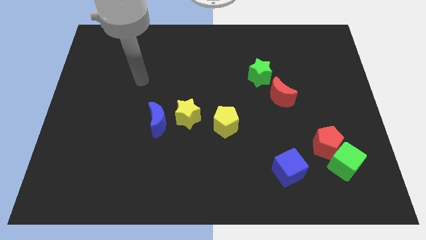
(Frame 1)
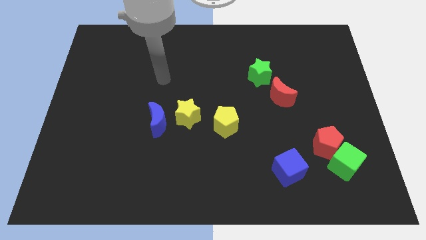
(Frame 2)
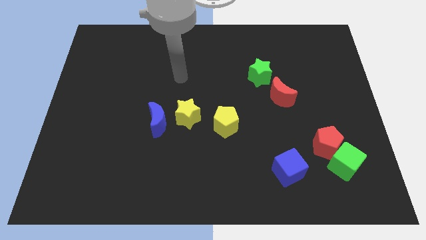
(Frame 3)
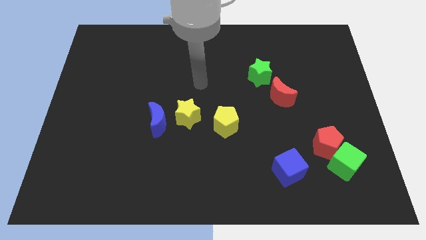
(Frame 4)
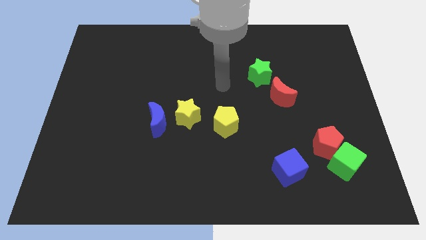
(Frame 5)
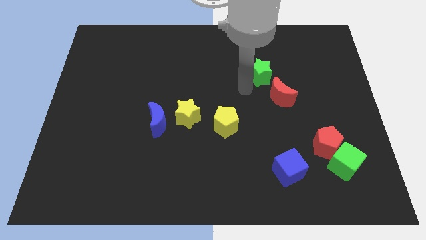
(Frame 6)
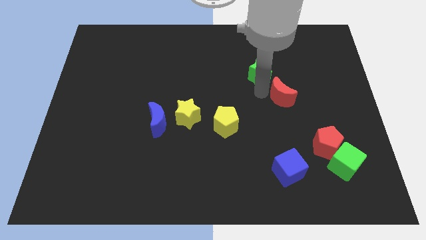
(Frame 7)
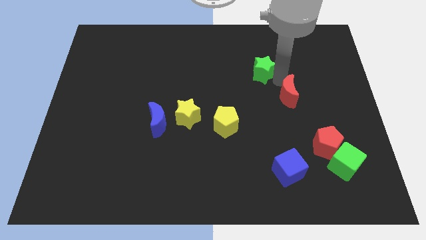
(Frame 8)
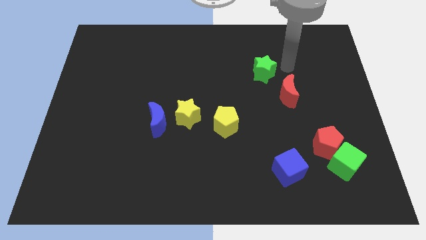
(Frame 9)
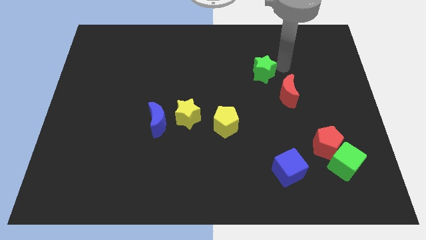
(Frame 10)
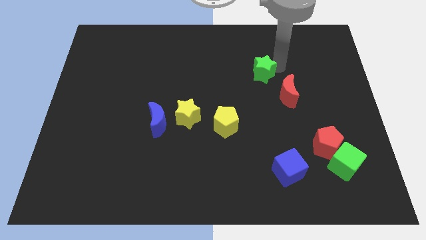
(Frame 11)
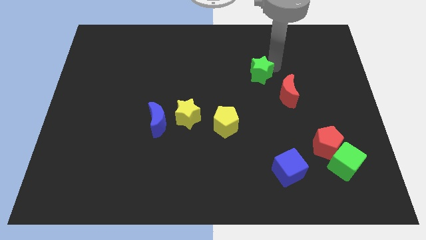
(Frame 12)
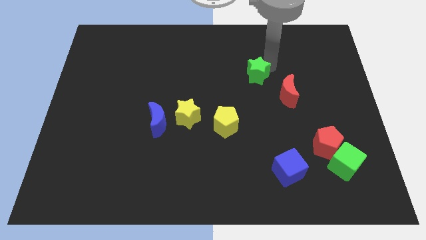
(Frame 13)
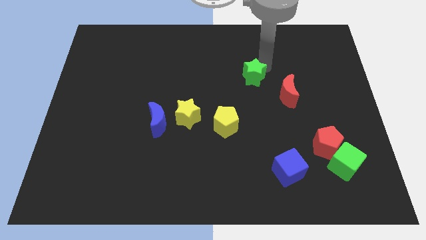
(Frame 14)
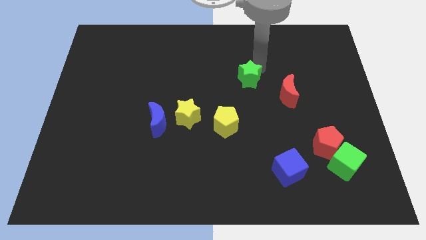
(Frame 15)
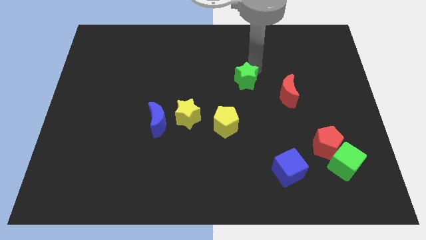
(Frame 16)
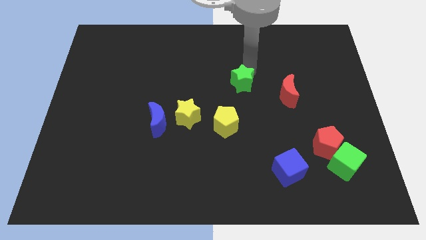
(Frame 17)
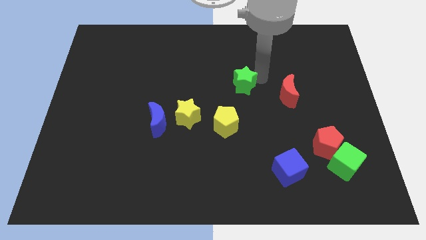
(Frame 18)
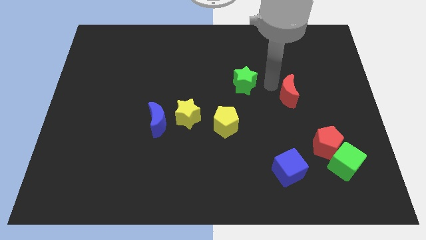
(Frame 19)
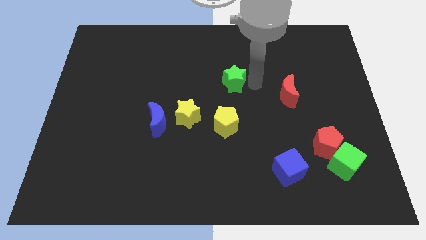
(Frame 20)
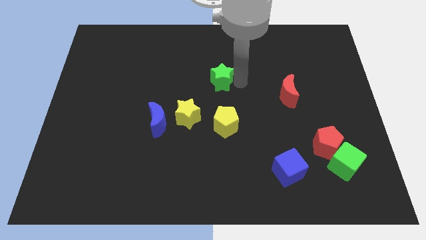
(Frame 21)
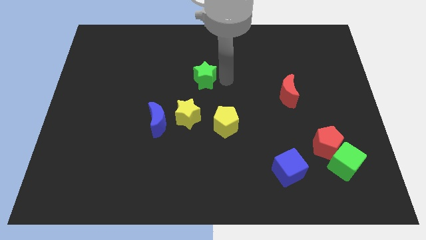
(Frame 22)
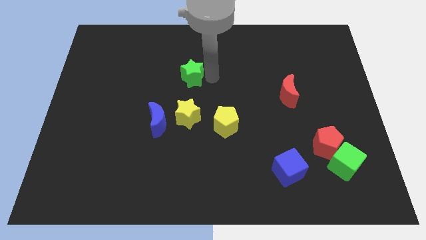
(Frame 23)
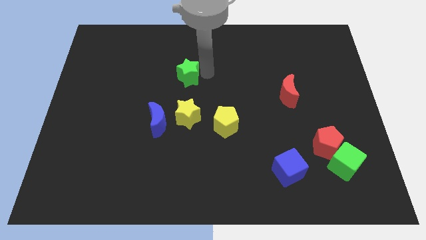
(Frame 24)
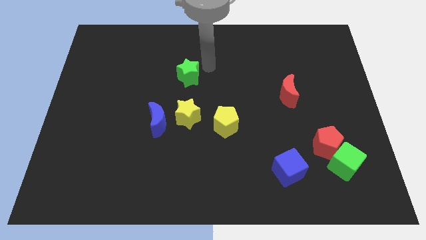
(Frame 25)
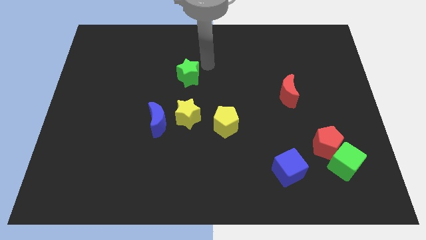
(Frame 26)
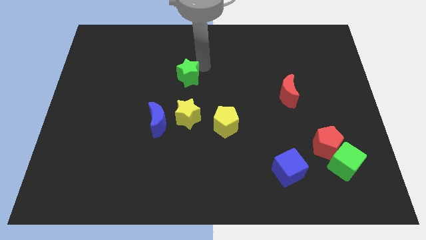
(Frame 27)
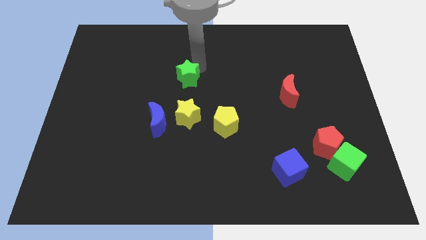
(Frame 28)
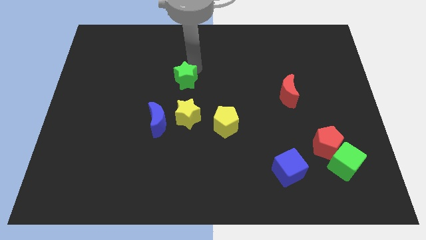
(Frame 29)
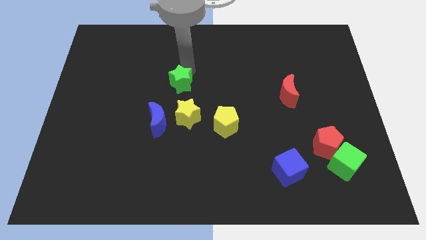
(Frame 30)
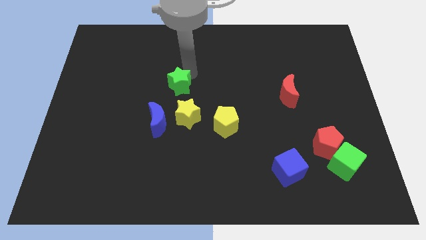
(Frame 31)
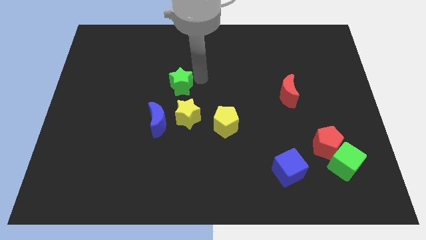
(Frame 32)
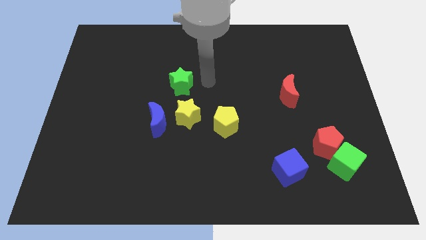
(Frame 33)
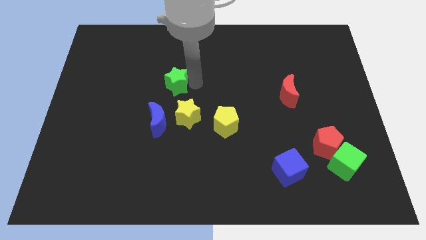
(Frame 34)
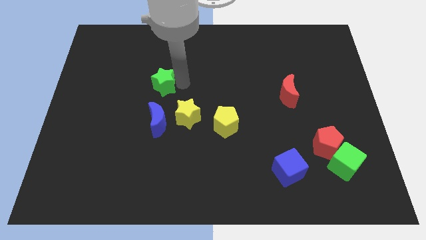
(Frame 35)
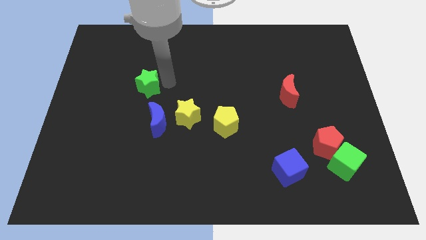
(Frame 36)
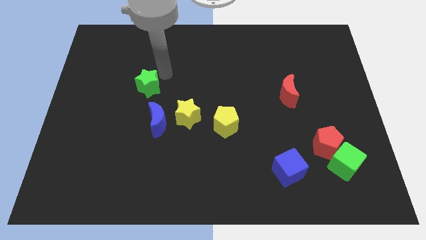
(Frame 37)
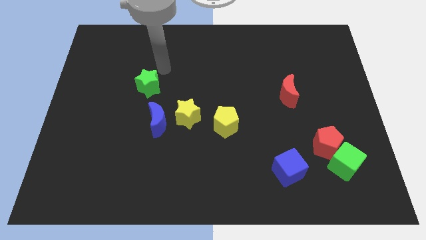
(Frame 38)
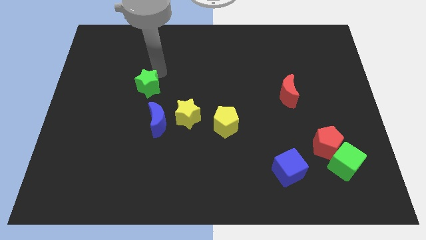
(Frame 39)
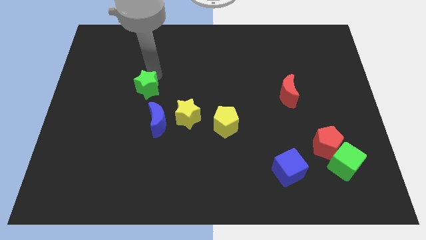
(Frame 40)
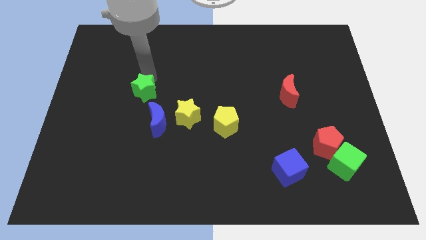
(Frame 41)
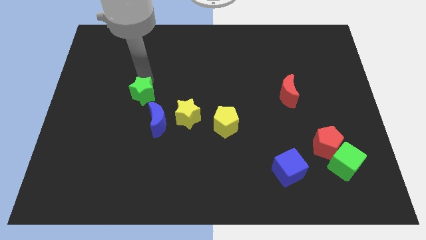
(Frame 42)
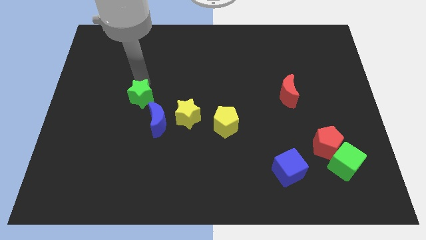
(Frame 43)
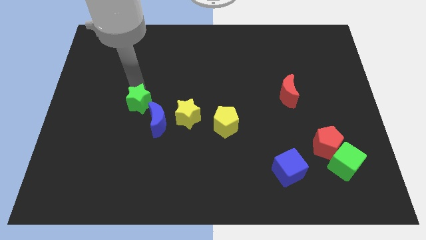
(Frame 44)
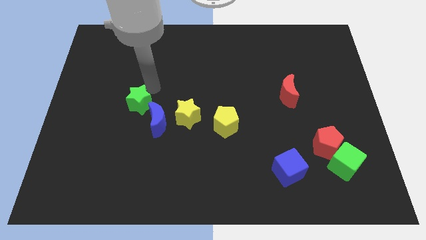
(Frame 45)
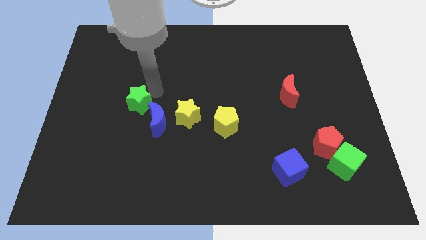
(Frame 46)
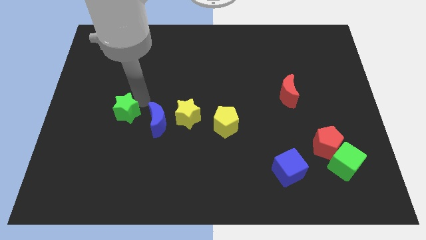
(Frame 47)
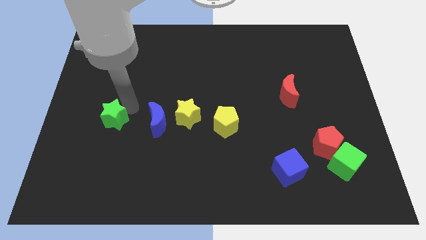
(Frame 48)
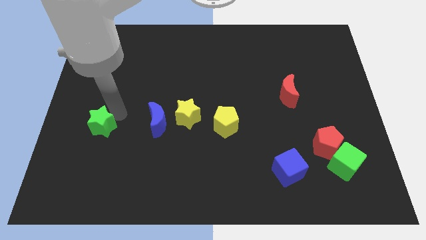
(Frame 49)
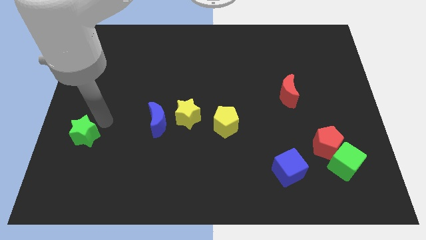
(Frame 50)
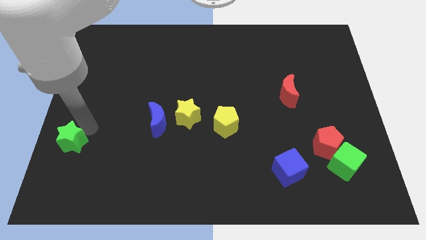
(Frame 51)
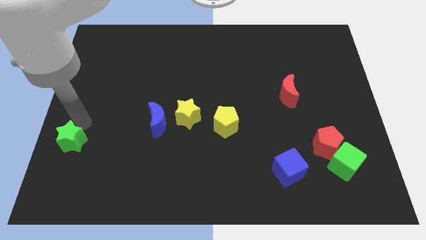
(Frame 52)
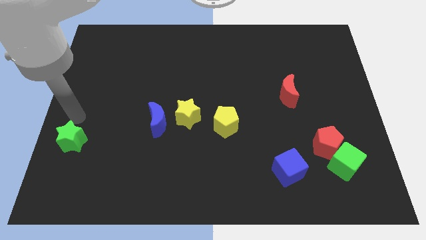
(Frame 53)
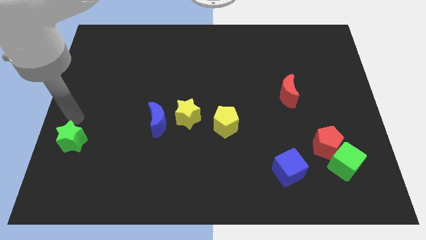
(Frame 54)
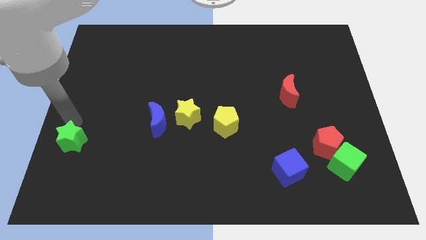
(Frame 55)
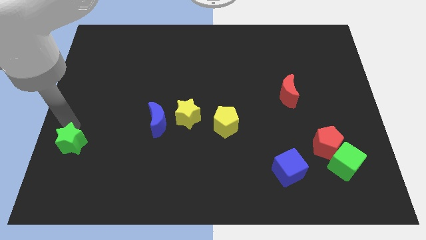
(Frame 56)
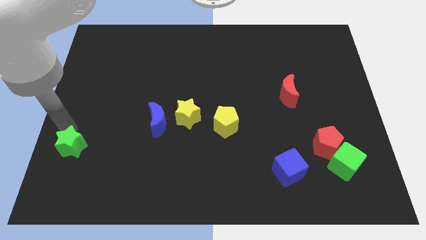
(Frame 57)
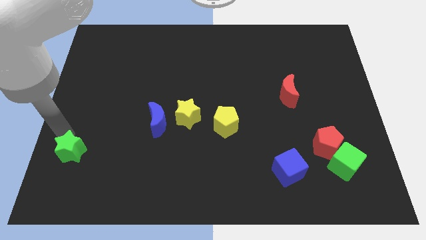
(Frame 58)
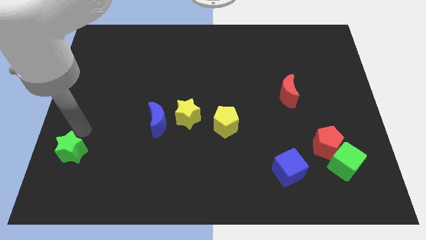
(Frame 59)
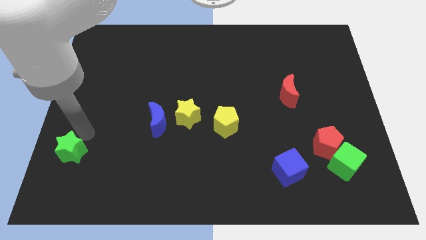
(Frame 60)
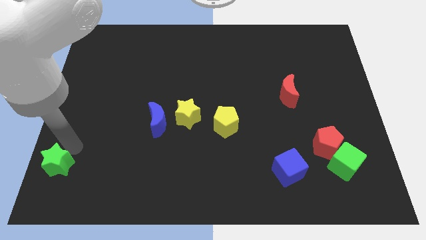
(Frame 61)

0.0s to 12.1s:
move the green star to the bottom left of the board
